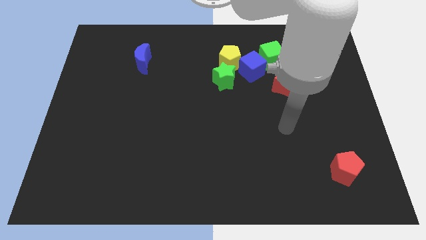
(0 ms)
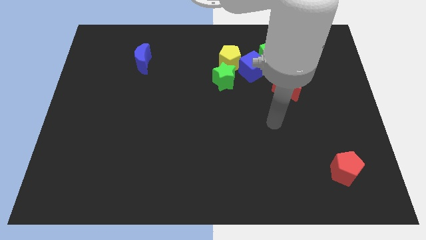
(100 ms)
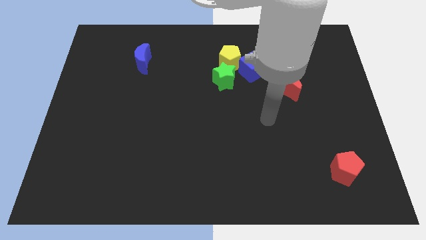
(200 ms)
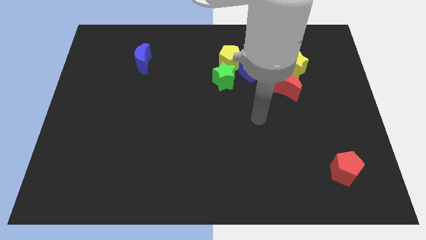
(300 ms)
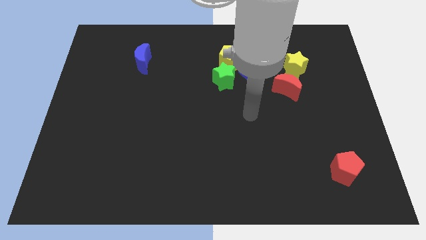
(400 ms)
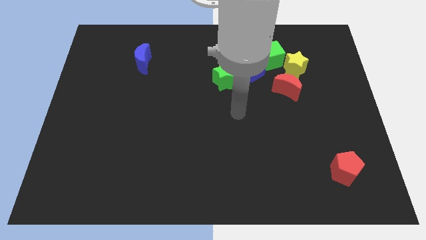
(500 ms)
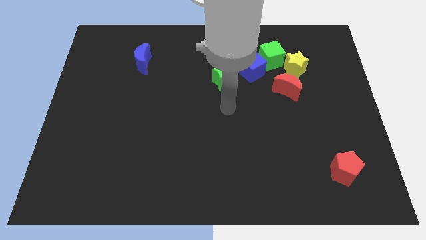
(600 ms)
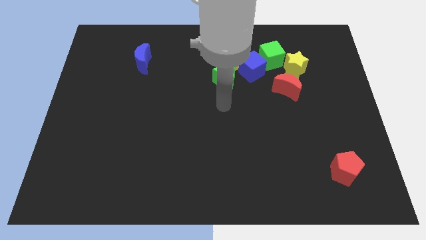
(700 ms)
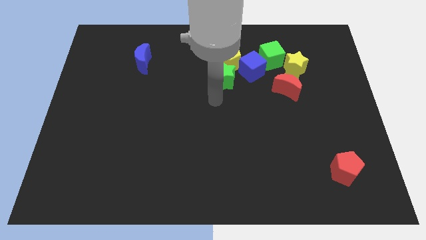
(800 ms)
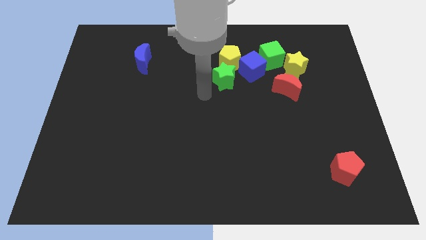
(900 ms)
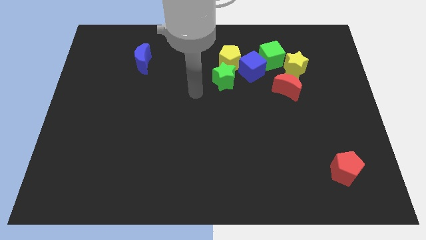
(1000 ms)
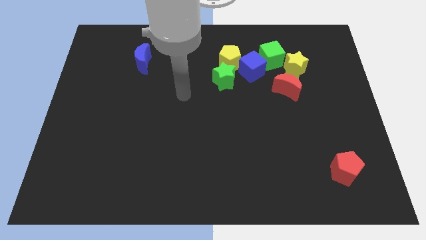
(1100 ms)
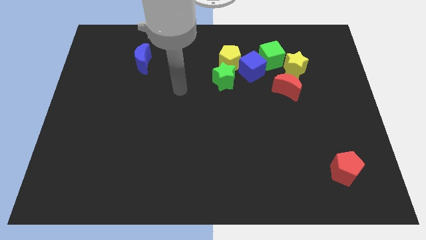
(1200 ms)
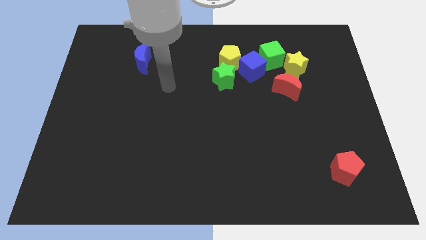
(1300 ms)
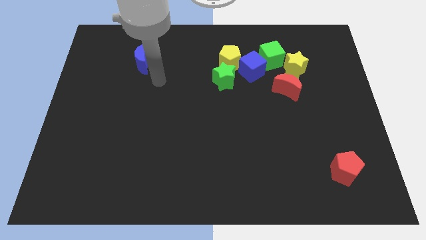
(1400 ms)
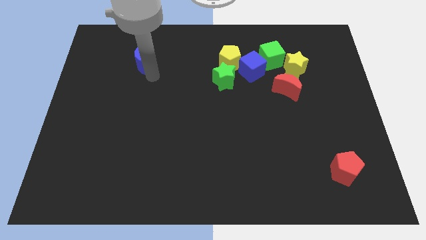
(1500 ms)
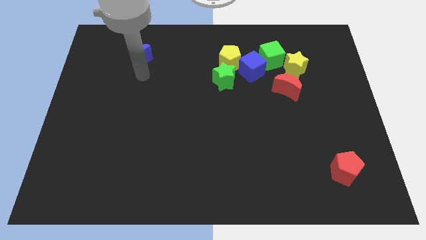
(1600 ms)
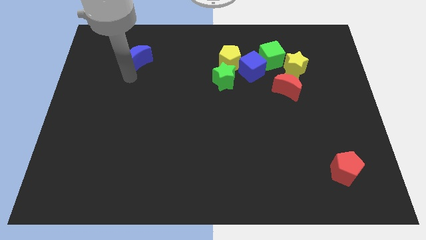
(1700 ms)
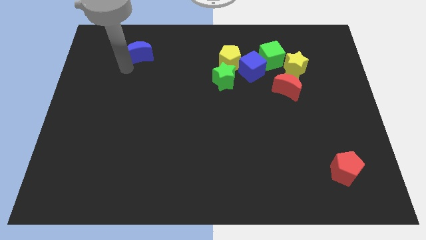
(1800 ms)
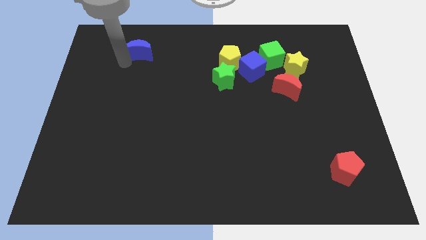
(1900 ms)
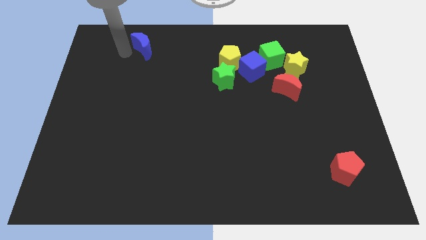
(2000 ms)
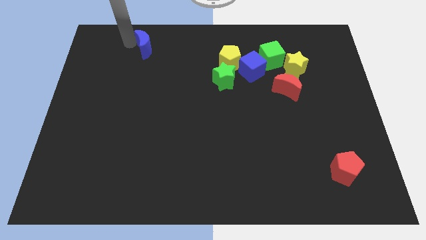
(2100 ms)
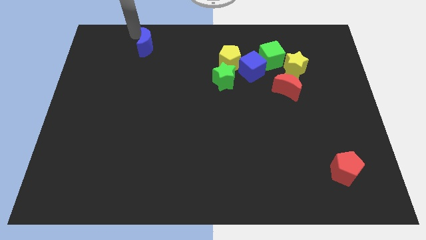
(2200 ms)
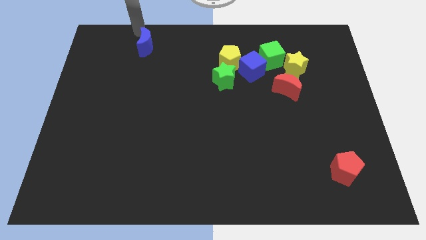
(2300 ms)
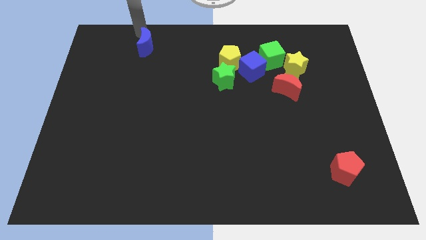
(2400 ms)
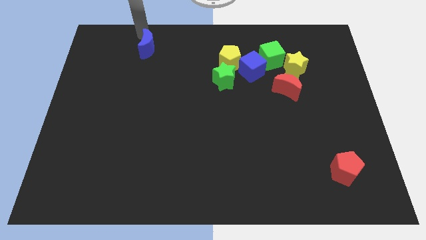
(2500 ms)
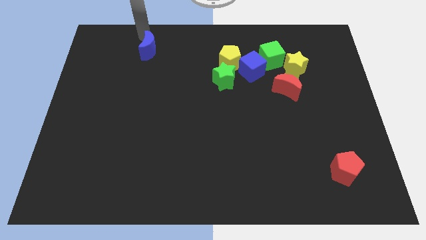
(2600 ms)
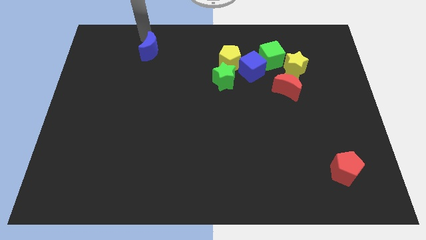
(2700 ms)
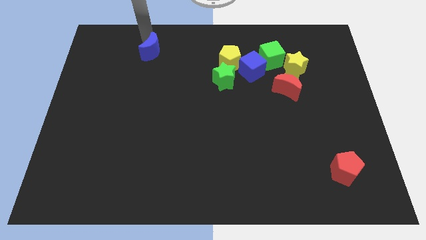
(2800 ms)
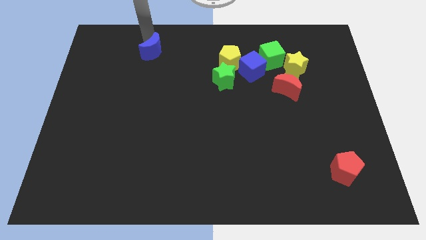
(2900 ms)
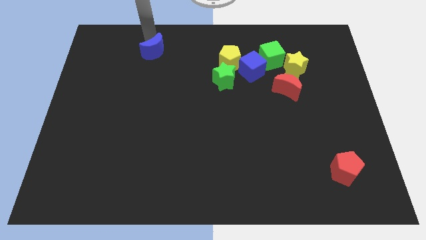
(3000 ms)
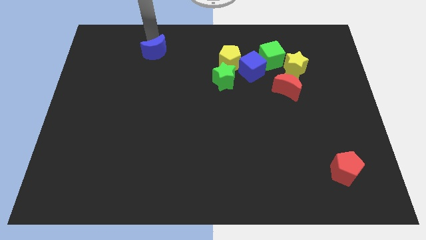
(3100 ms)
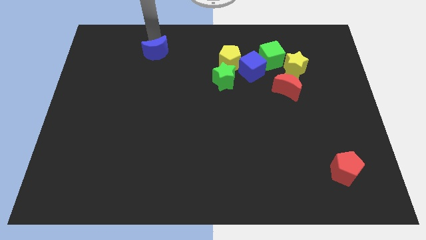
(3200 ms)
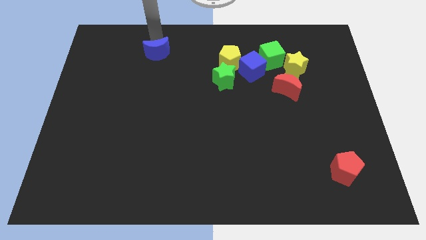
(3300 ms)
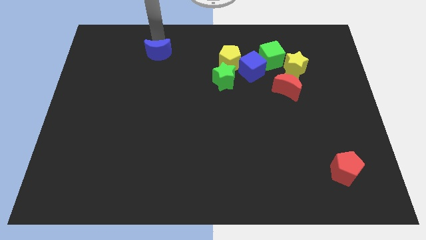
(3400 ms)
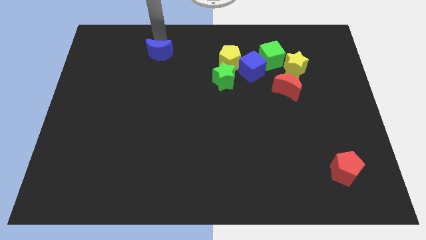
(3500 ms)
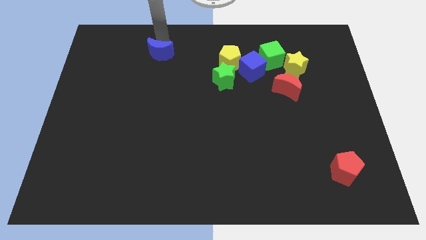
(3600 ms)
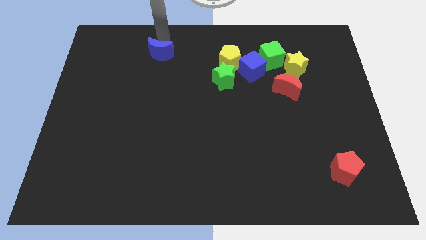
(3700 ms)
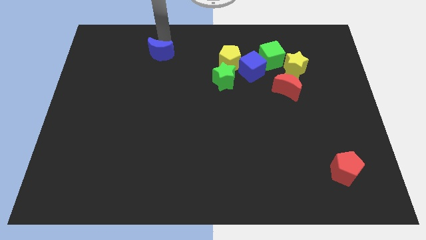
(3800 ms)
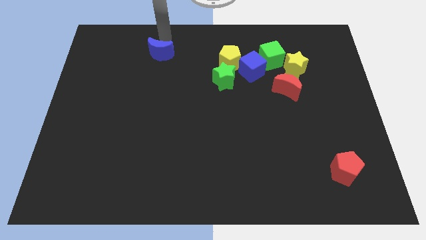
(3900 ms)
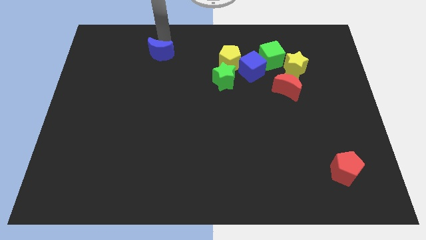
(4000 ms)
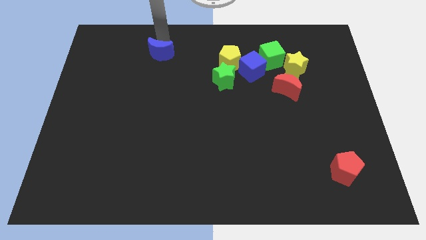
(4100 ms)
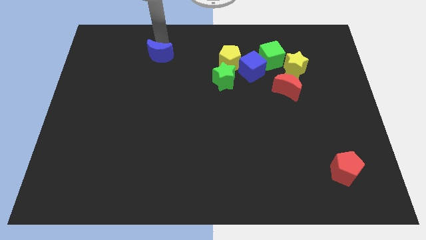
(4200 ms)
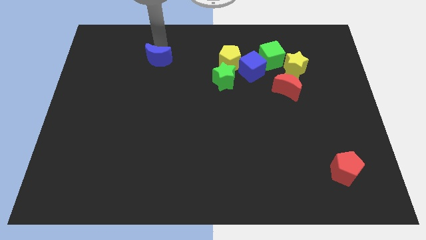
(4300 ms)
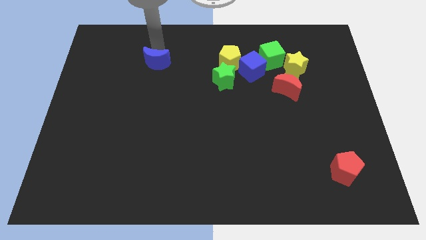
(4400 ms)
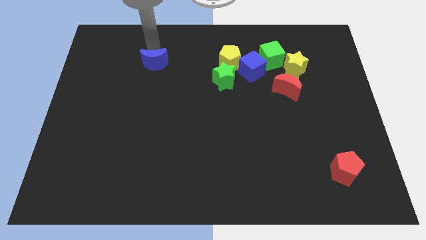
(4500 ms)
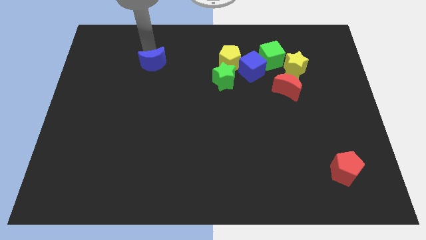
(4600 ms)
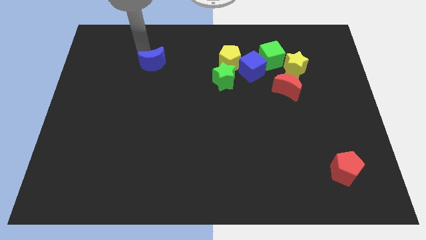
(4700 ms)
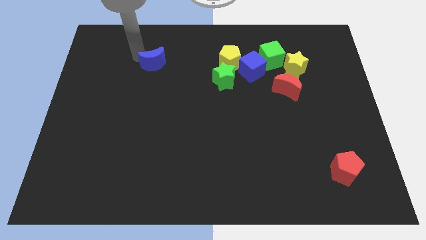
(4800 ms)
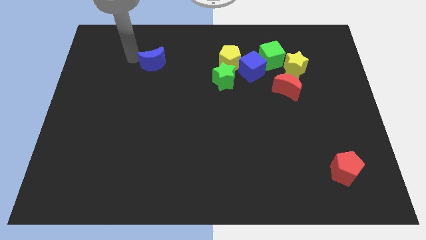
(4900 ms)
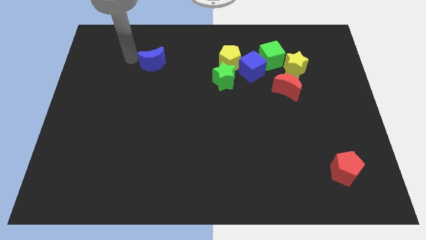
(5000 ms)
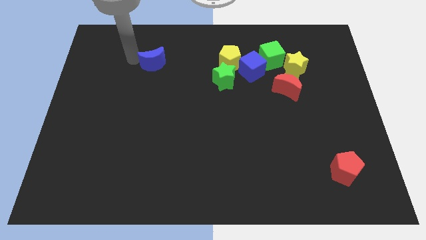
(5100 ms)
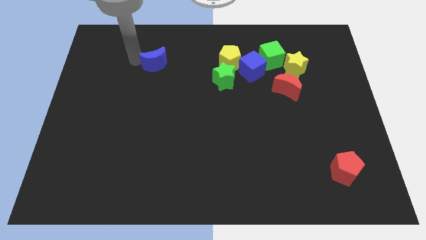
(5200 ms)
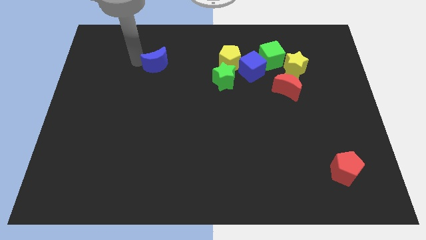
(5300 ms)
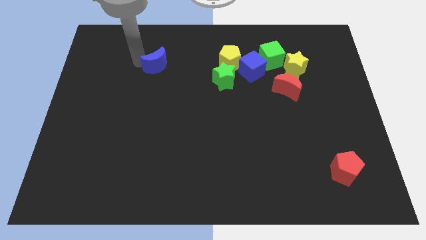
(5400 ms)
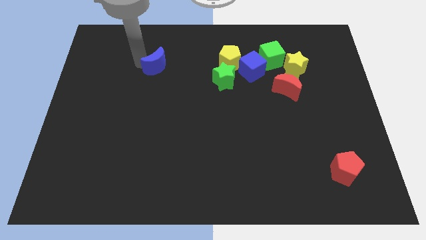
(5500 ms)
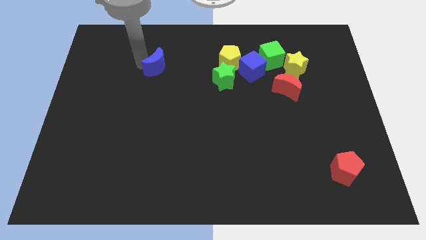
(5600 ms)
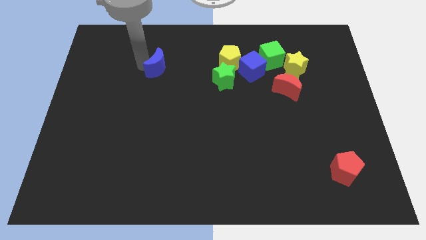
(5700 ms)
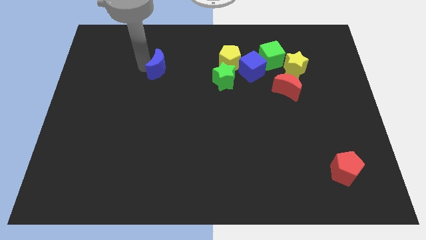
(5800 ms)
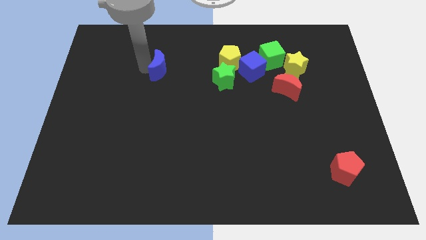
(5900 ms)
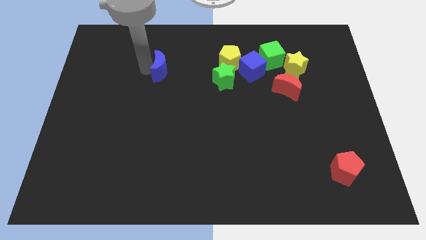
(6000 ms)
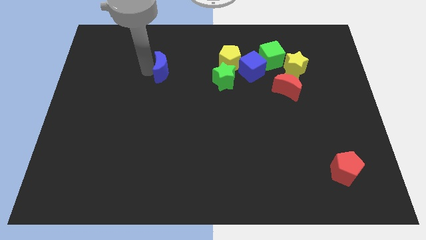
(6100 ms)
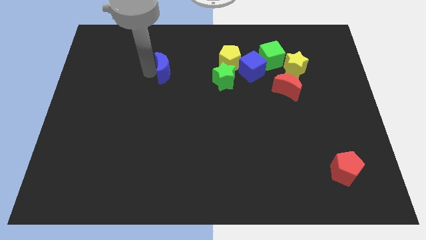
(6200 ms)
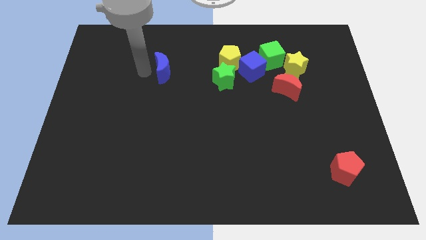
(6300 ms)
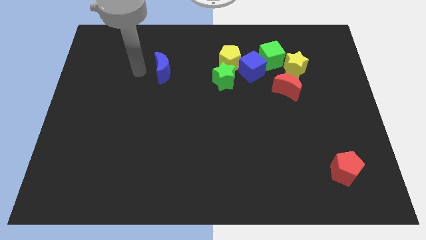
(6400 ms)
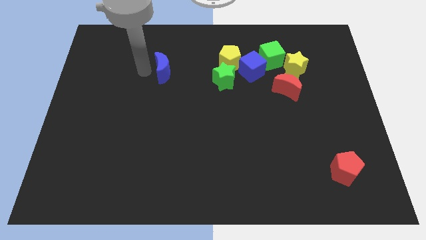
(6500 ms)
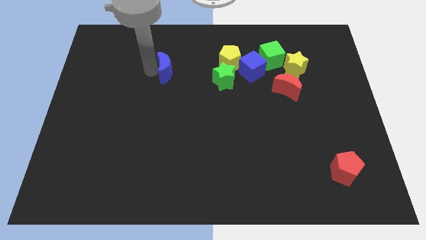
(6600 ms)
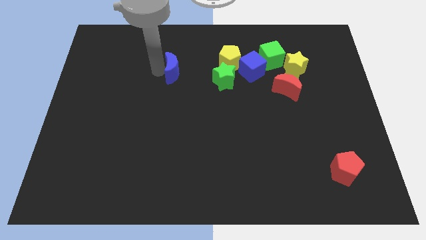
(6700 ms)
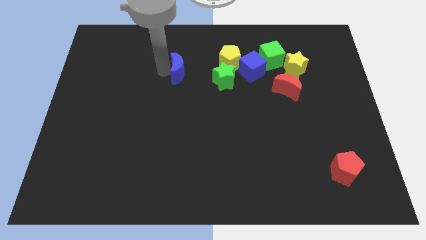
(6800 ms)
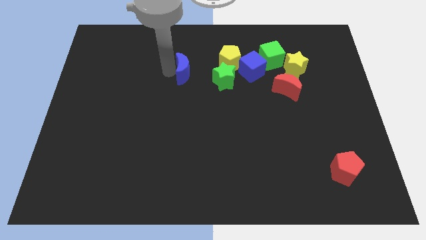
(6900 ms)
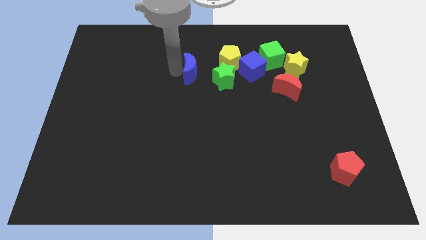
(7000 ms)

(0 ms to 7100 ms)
move the blue moon diagonally down and to the left of the yellow pentagon

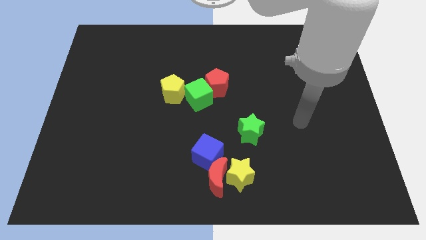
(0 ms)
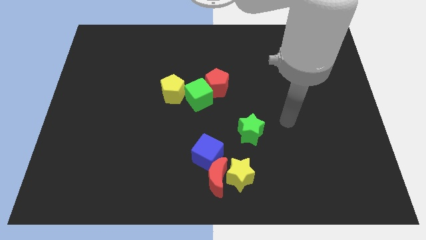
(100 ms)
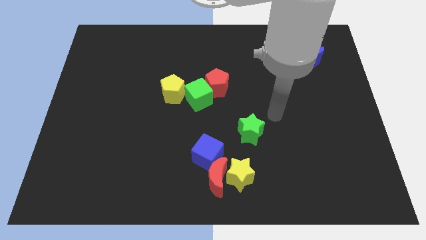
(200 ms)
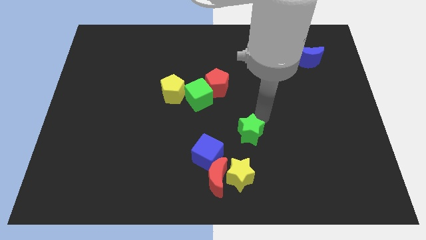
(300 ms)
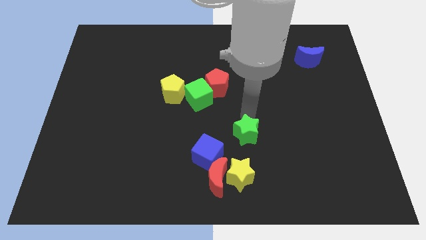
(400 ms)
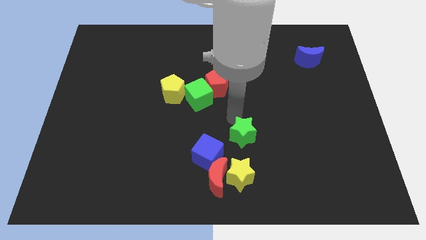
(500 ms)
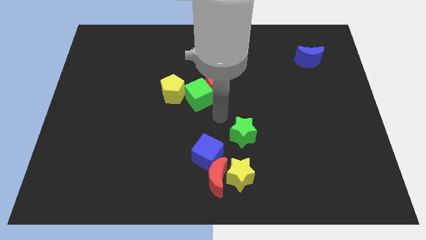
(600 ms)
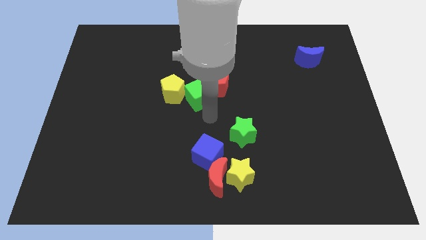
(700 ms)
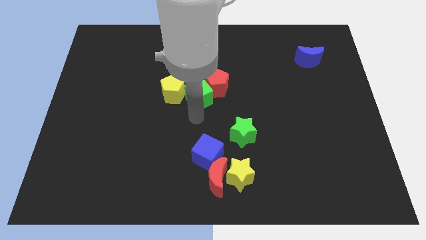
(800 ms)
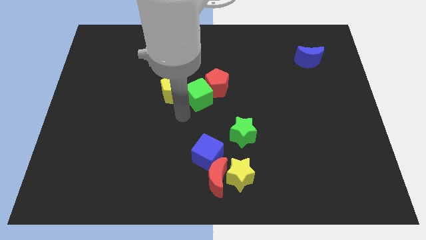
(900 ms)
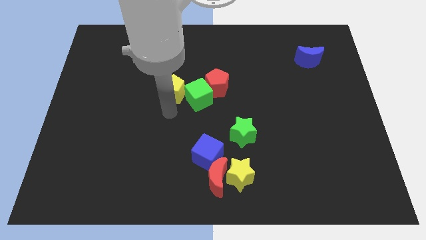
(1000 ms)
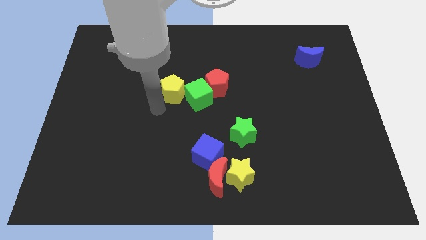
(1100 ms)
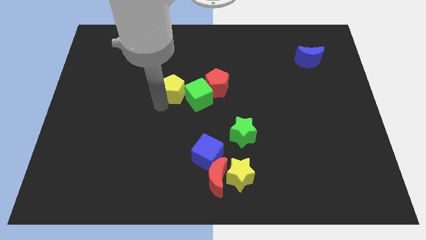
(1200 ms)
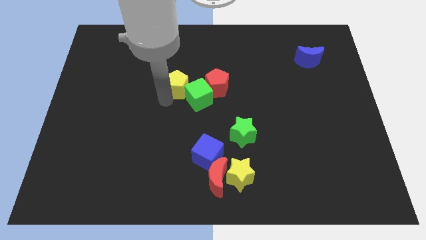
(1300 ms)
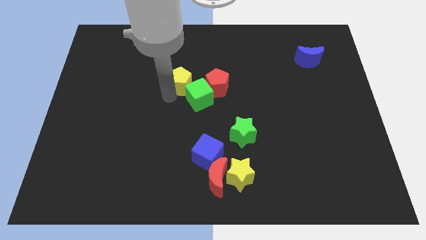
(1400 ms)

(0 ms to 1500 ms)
move the yellow pentagon to the top side of the green cube
